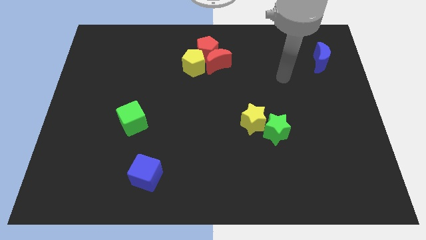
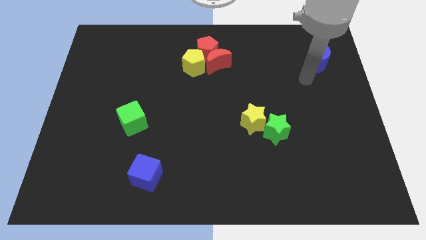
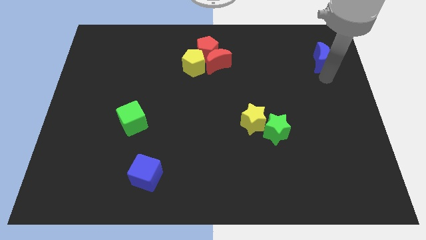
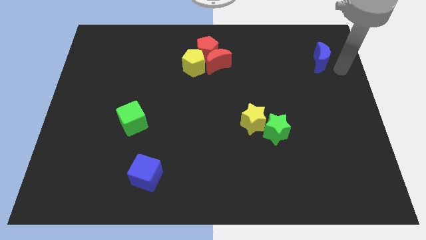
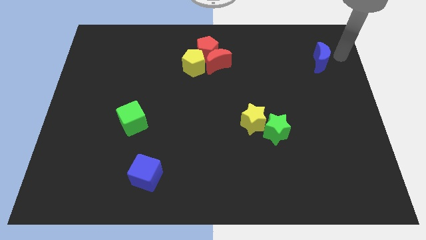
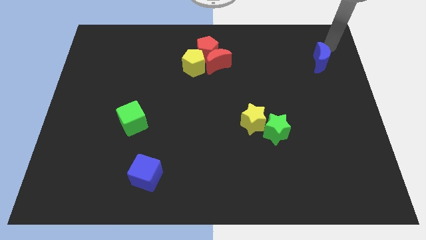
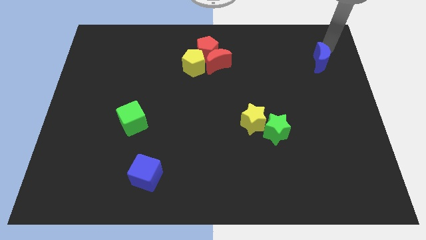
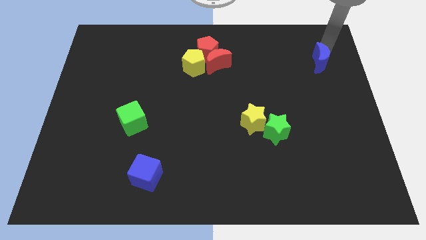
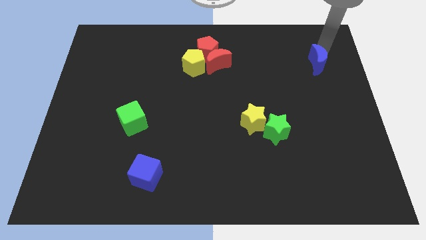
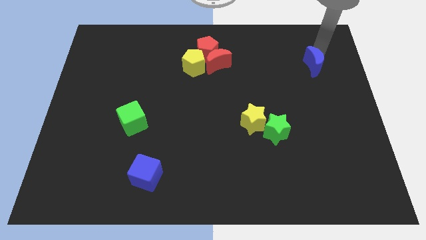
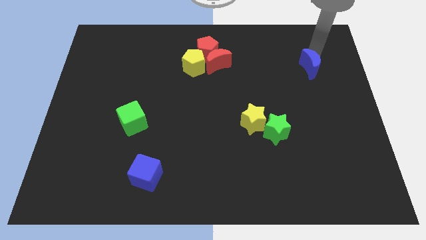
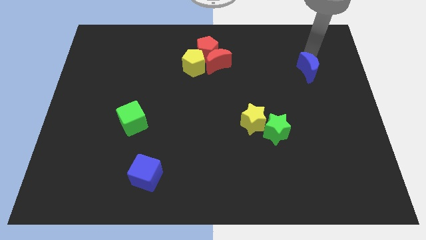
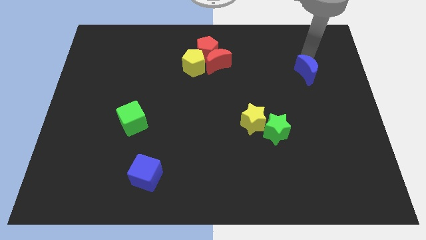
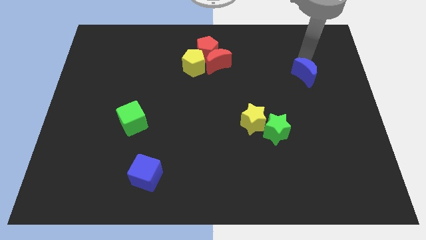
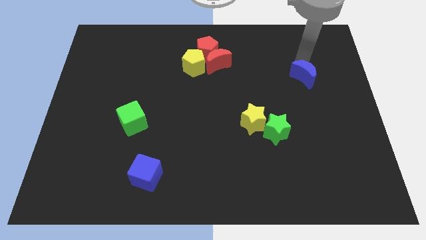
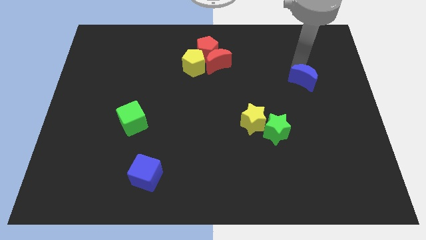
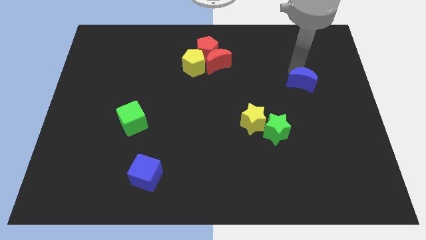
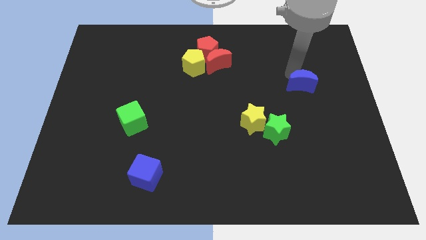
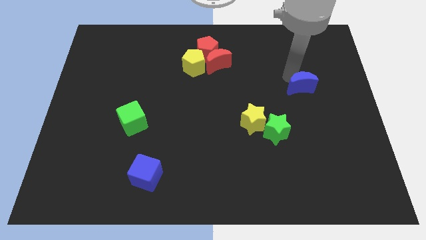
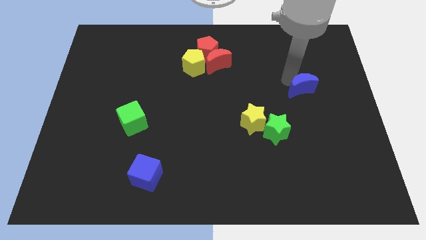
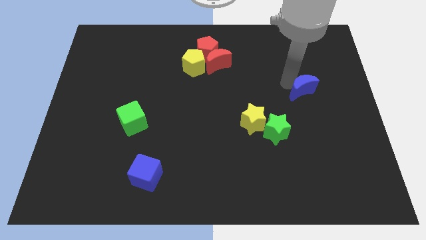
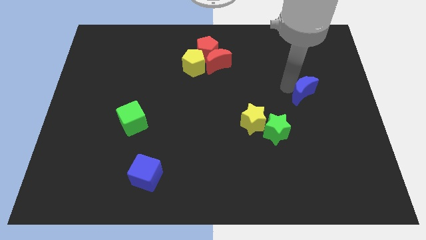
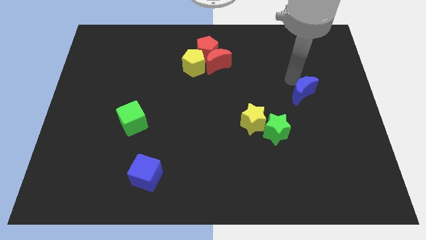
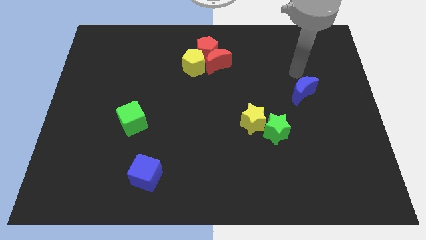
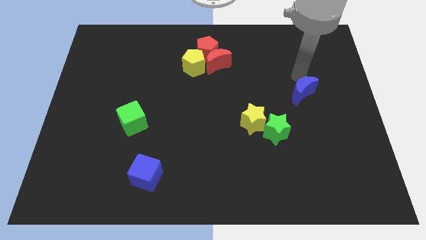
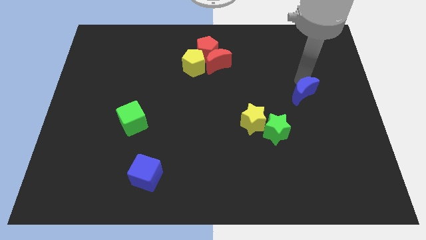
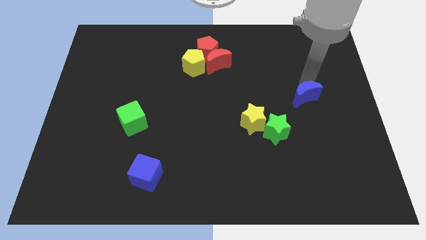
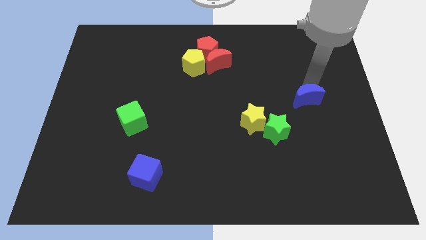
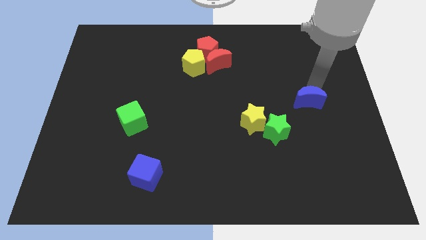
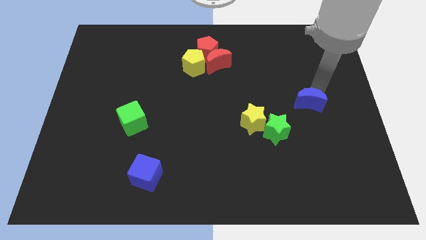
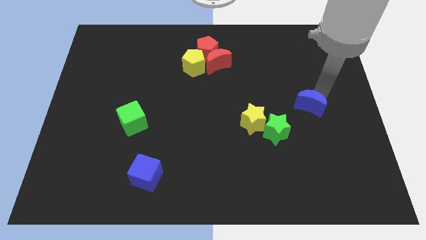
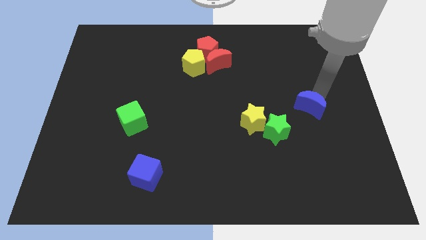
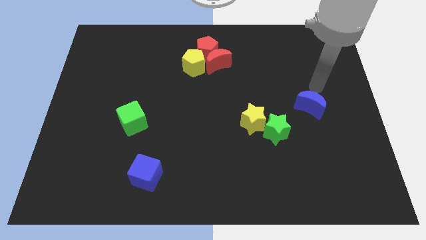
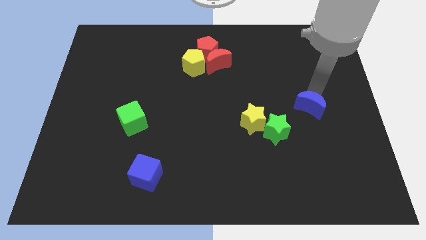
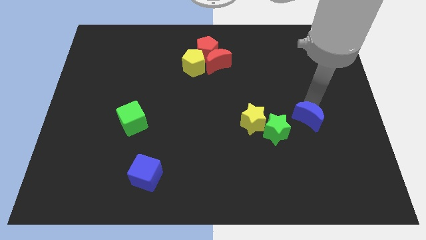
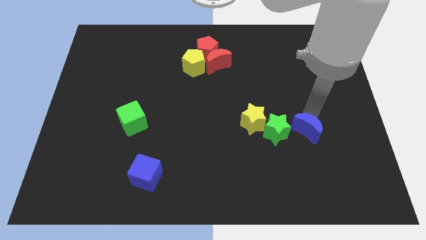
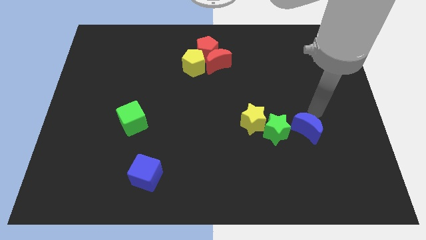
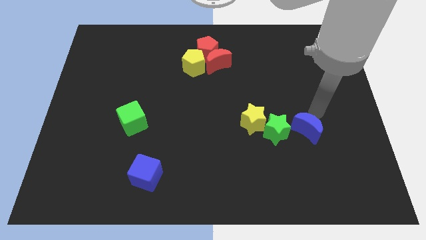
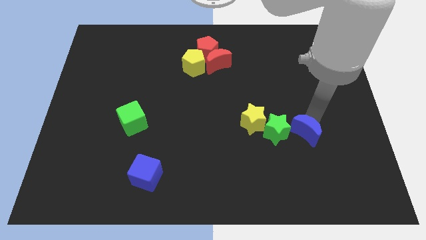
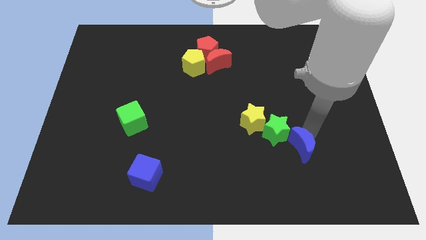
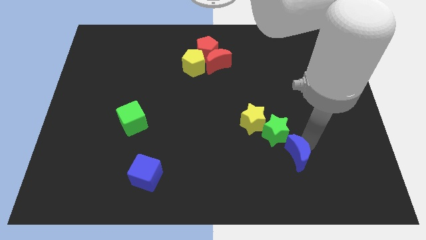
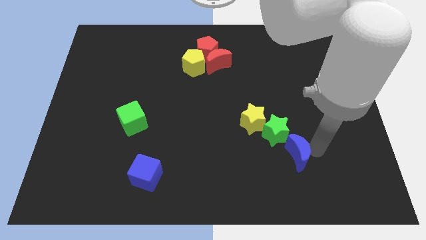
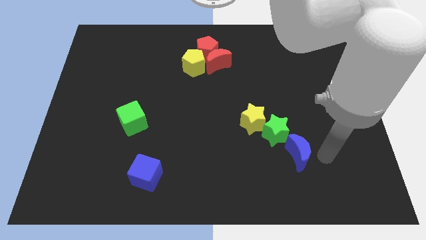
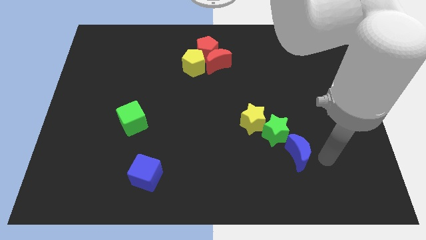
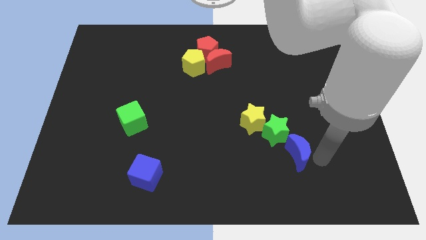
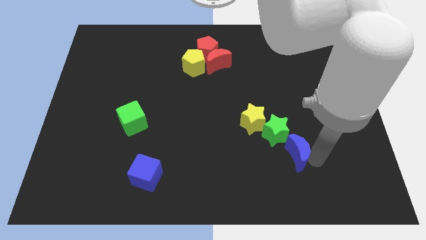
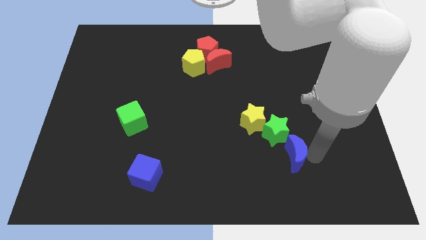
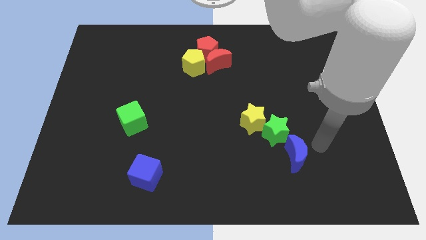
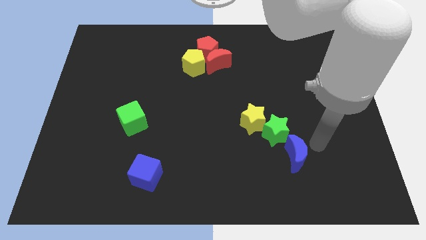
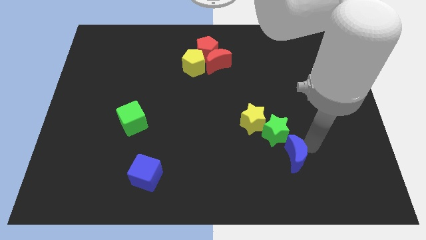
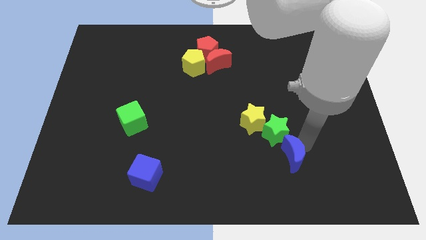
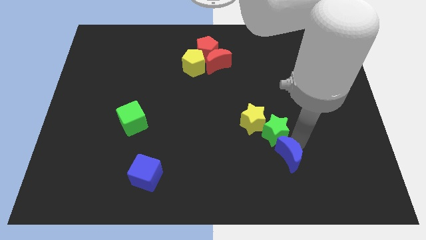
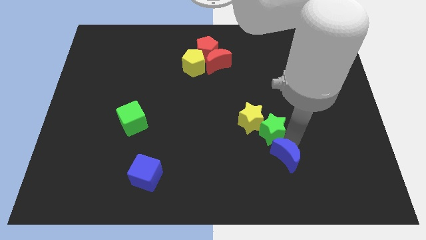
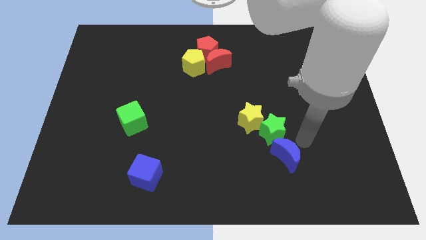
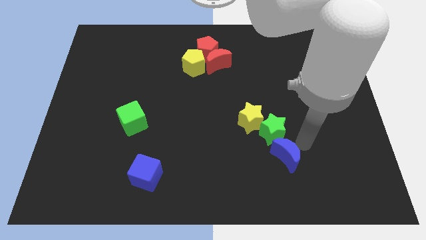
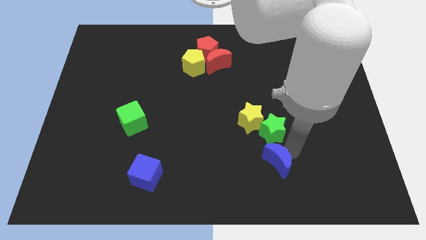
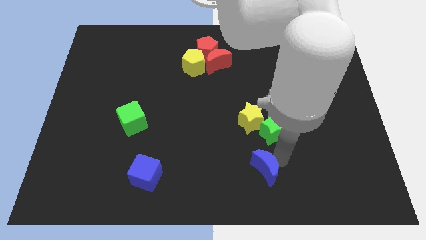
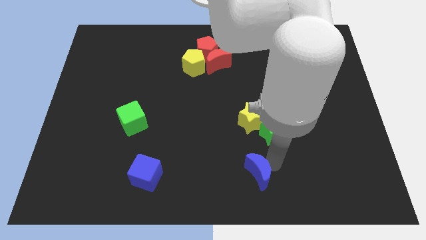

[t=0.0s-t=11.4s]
slide the blue moon to the bottom side

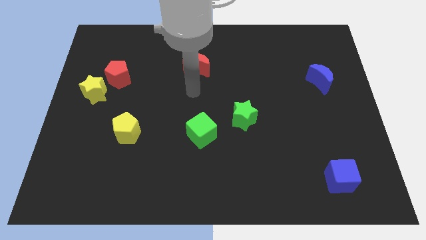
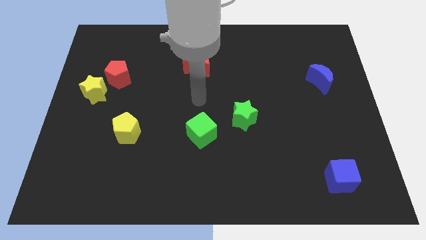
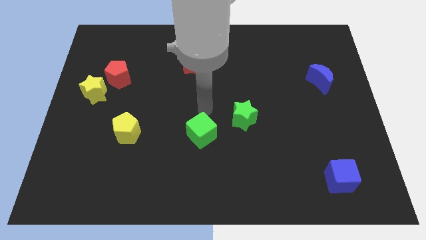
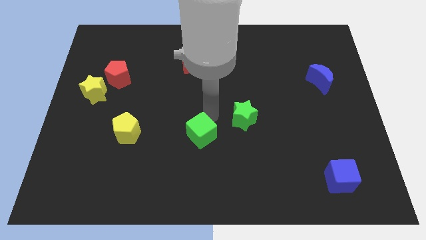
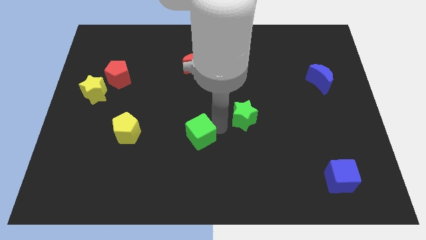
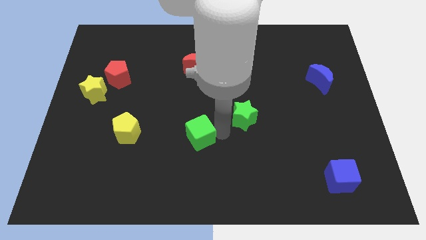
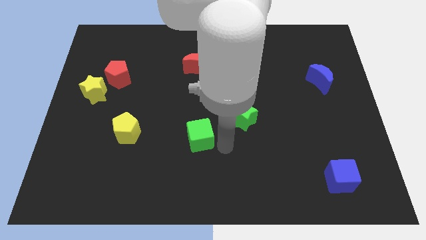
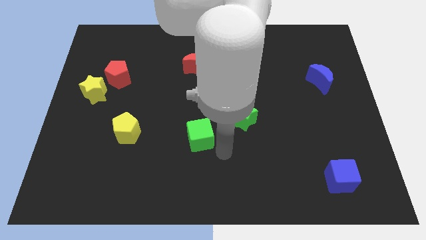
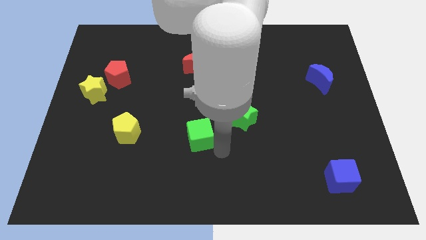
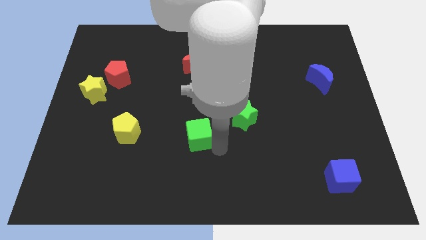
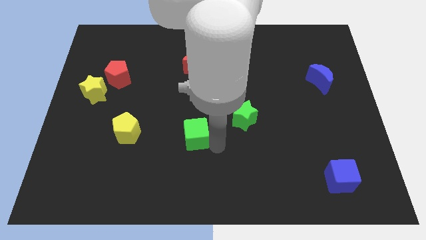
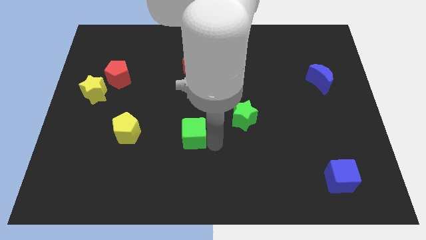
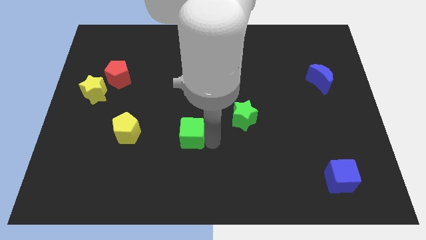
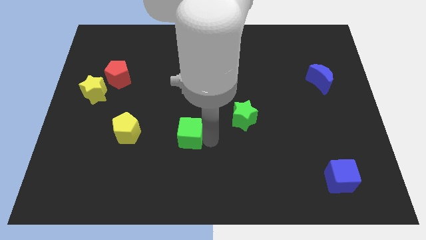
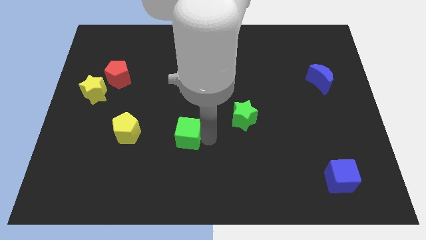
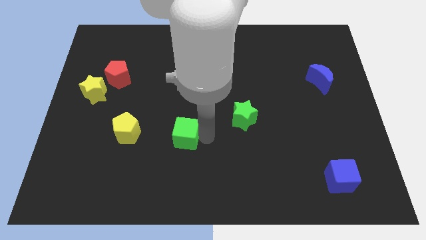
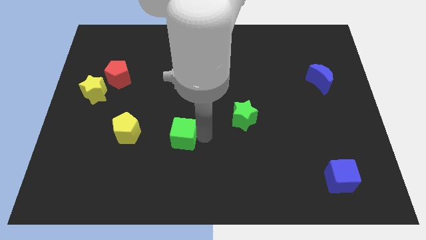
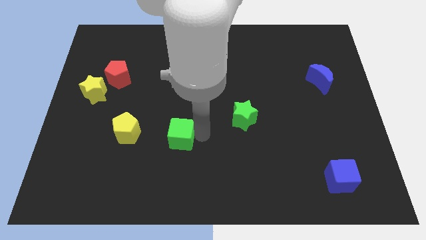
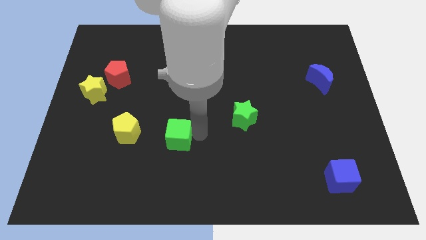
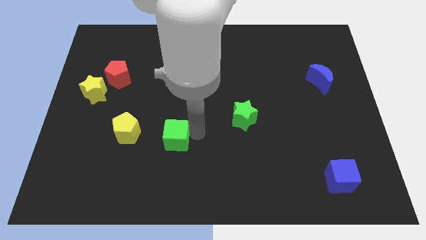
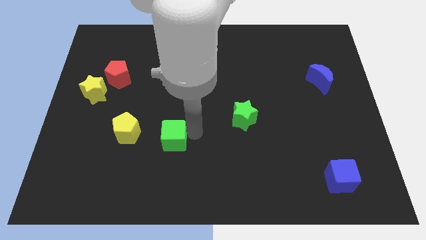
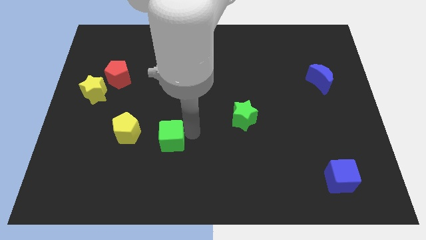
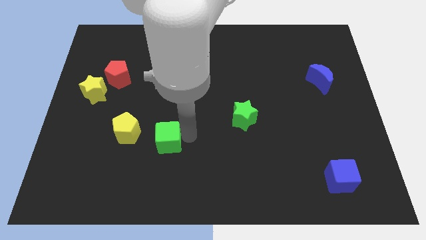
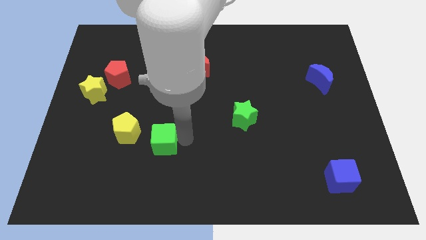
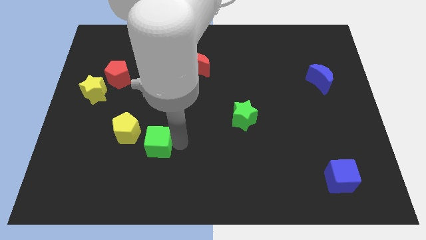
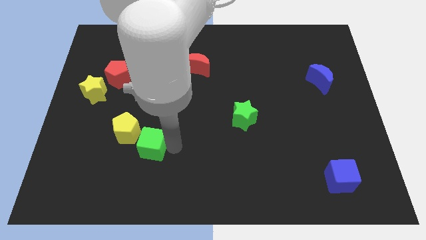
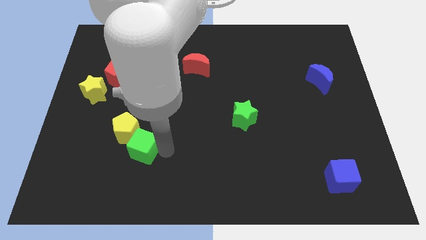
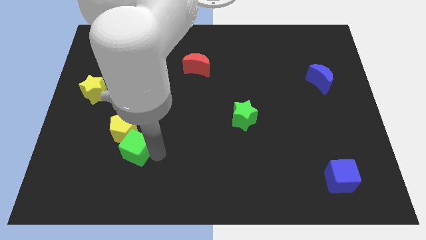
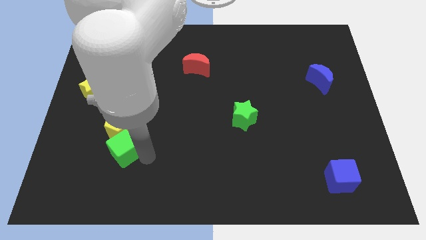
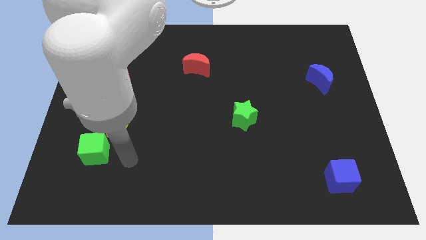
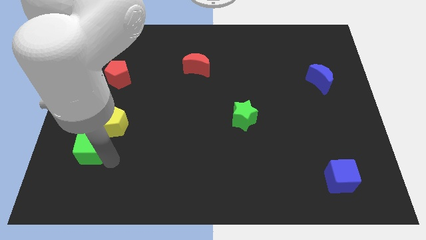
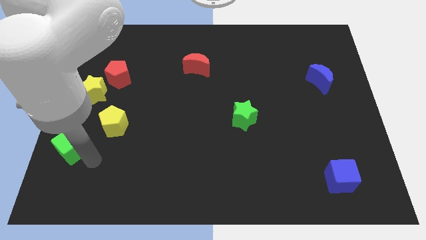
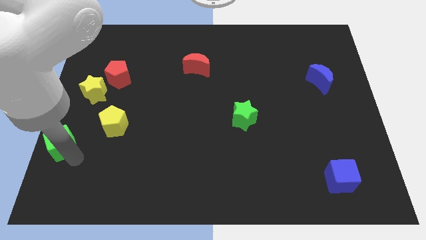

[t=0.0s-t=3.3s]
slide the green cube to the left side
